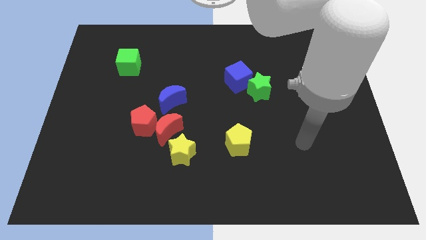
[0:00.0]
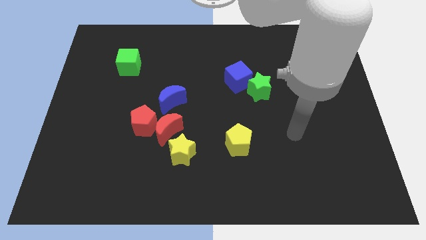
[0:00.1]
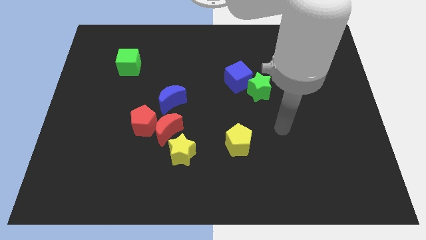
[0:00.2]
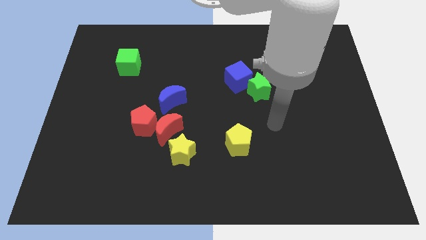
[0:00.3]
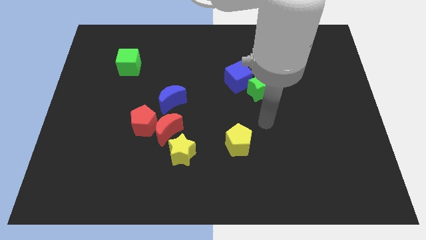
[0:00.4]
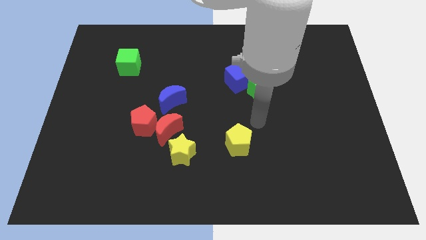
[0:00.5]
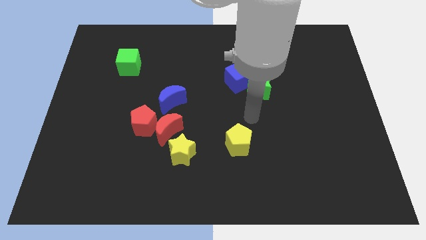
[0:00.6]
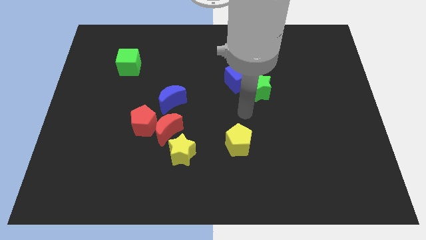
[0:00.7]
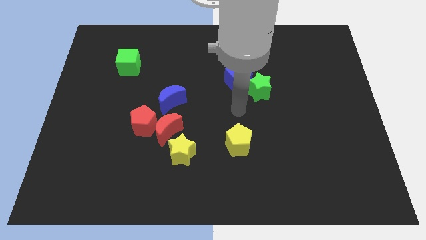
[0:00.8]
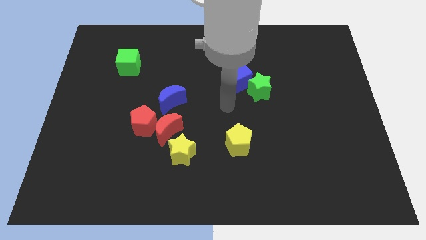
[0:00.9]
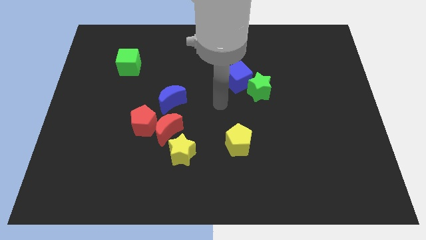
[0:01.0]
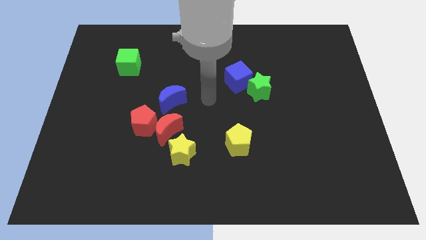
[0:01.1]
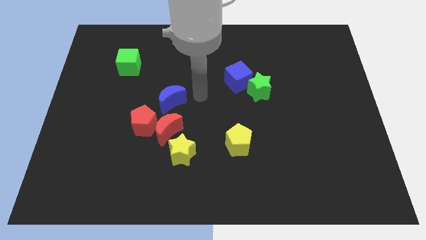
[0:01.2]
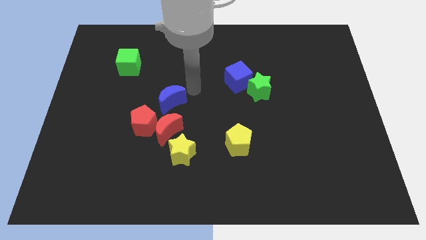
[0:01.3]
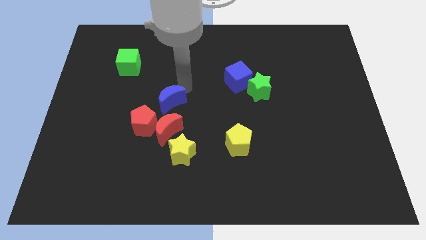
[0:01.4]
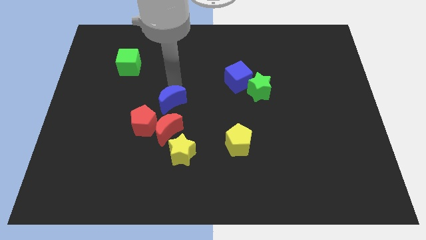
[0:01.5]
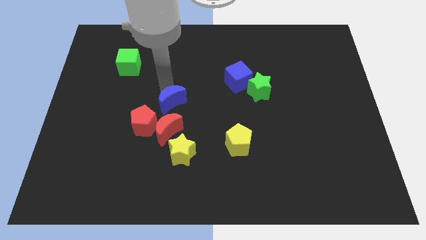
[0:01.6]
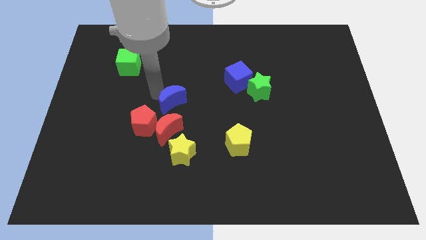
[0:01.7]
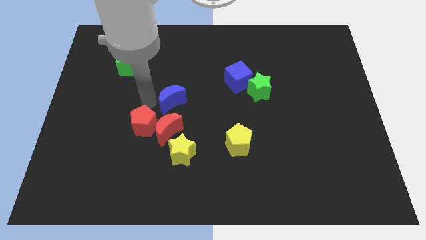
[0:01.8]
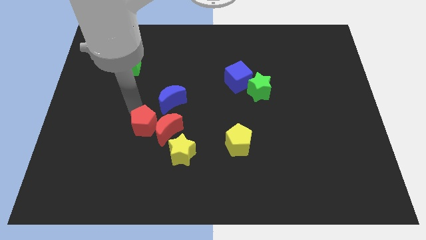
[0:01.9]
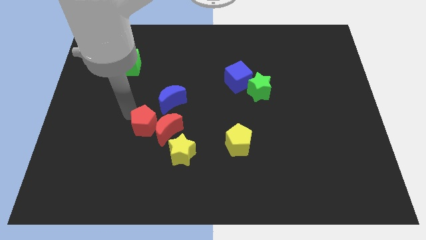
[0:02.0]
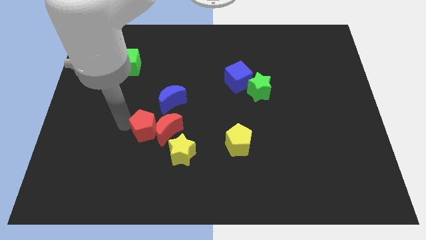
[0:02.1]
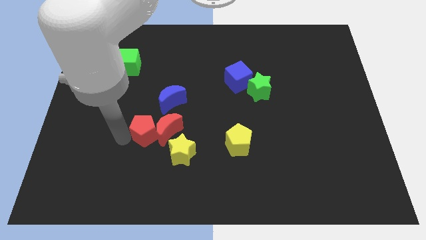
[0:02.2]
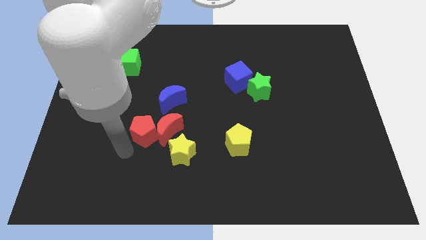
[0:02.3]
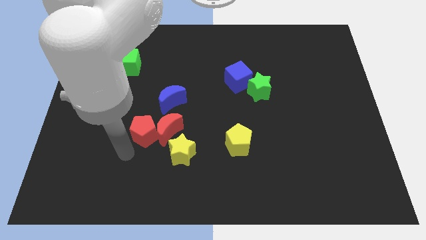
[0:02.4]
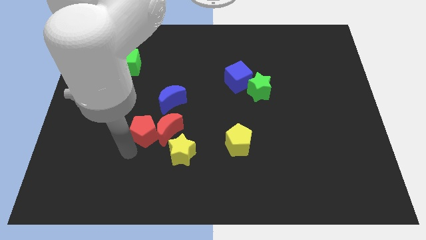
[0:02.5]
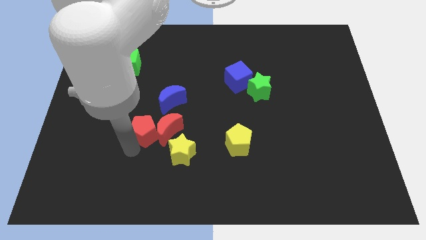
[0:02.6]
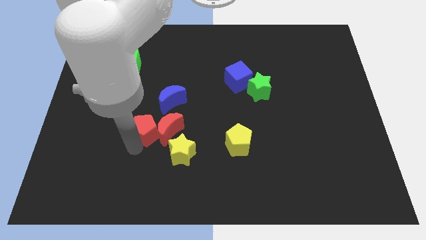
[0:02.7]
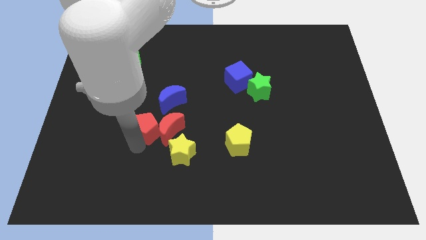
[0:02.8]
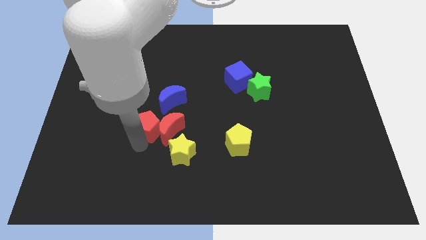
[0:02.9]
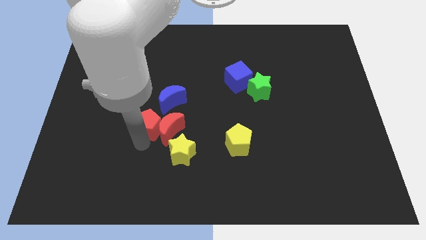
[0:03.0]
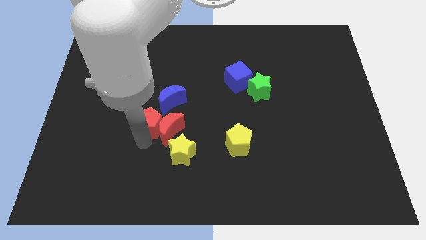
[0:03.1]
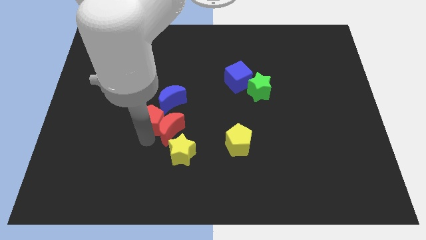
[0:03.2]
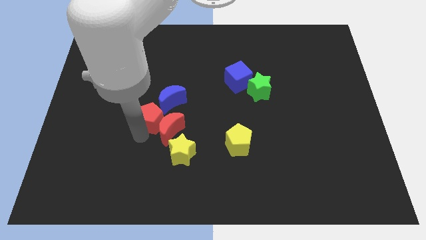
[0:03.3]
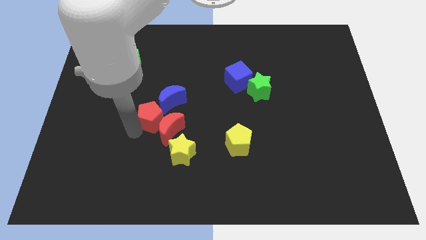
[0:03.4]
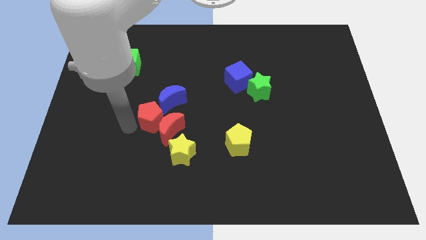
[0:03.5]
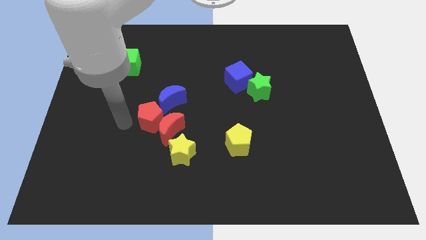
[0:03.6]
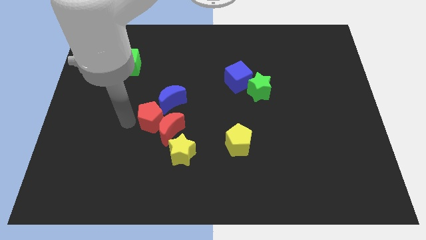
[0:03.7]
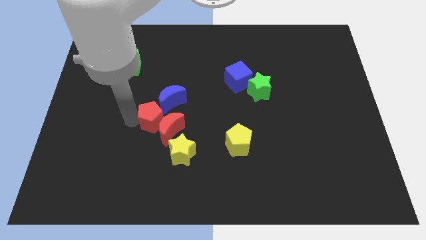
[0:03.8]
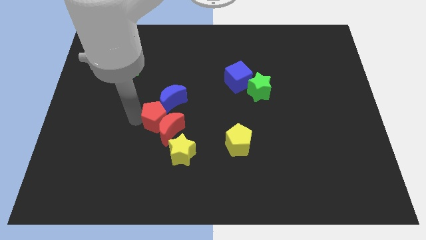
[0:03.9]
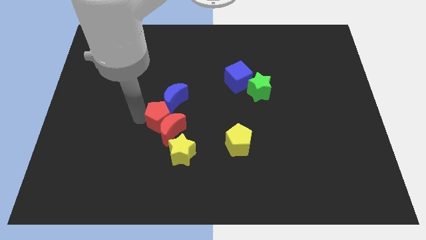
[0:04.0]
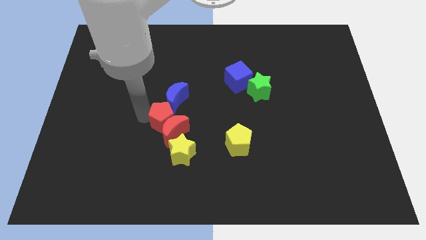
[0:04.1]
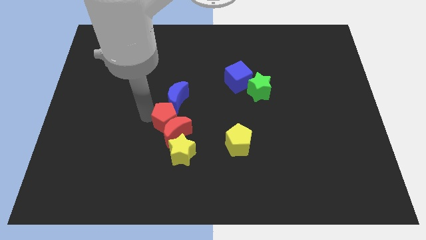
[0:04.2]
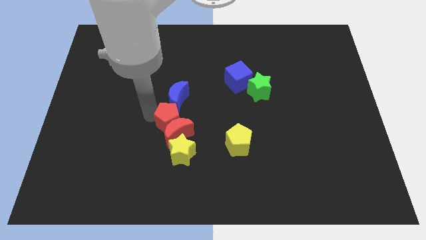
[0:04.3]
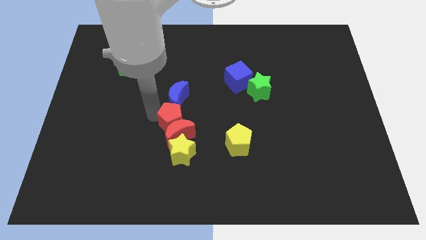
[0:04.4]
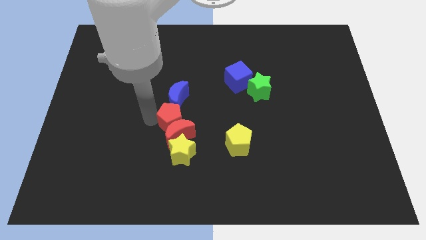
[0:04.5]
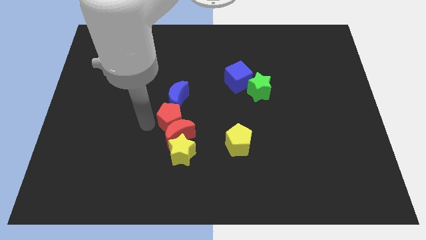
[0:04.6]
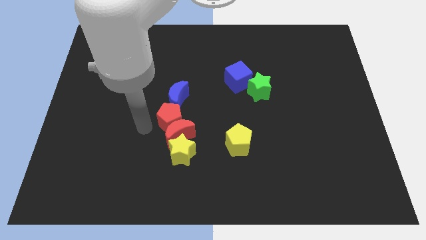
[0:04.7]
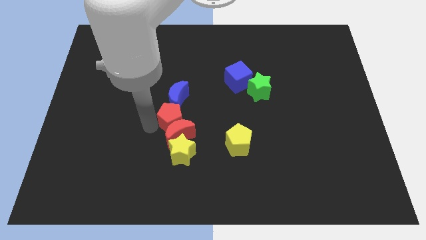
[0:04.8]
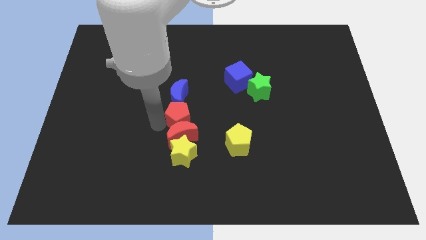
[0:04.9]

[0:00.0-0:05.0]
slide the red pentagon a little bit right

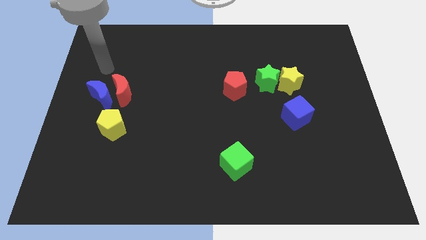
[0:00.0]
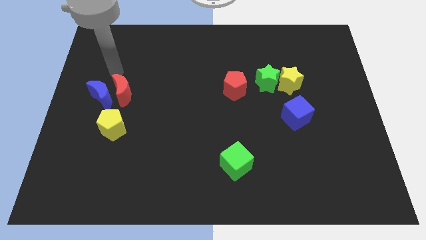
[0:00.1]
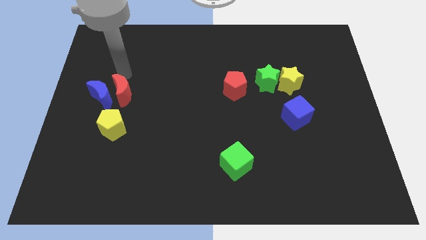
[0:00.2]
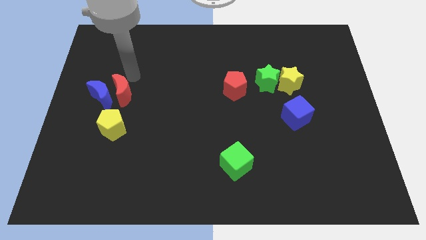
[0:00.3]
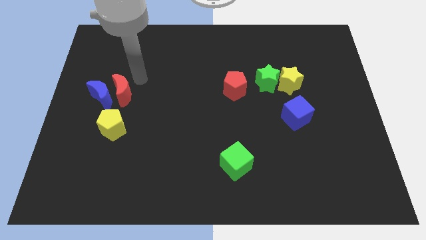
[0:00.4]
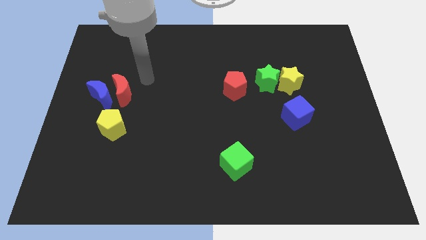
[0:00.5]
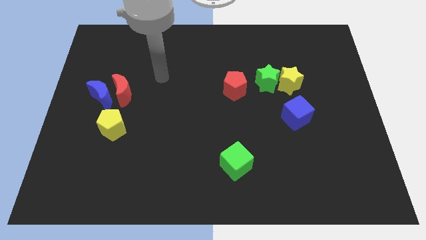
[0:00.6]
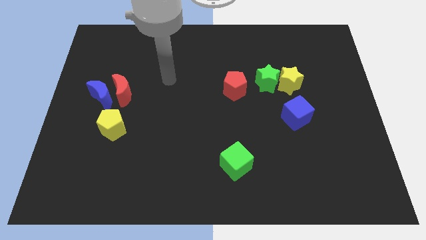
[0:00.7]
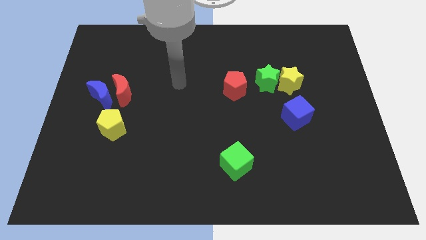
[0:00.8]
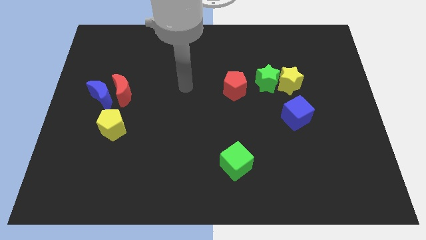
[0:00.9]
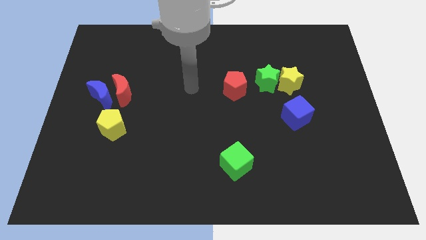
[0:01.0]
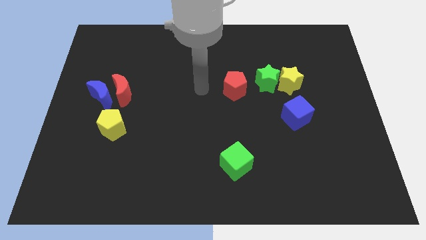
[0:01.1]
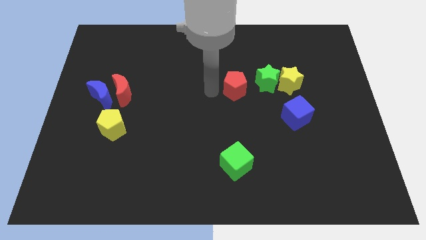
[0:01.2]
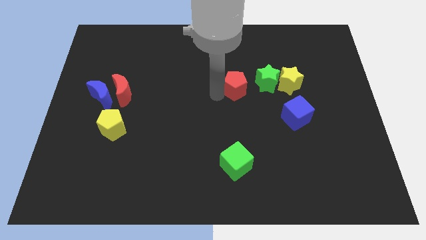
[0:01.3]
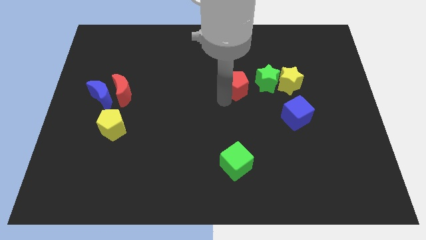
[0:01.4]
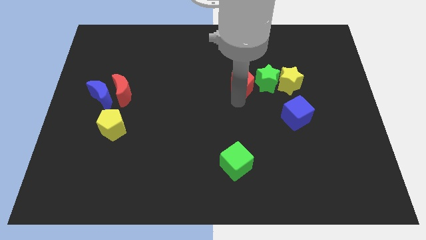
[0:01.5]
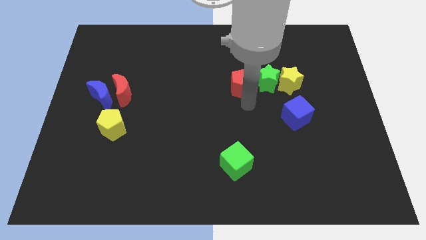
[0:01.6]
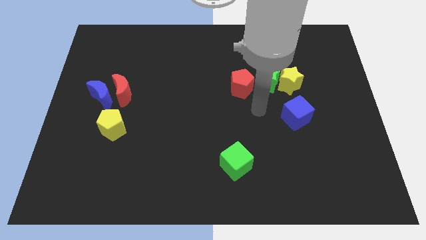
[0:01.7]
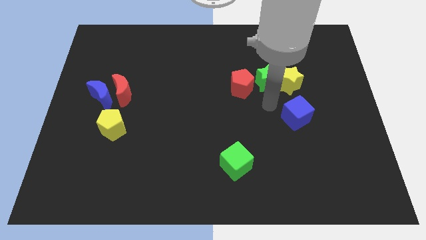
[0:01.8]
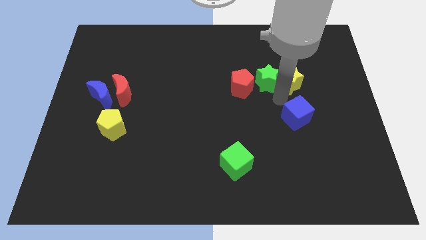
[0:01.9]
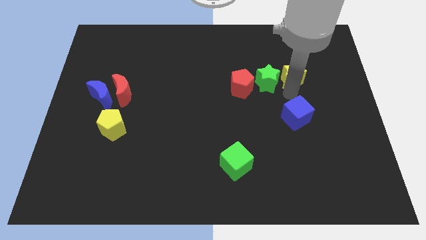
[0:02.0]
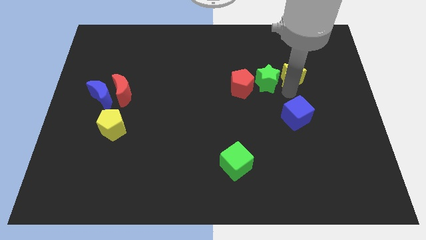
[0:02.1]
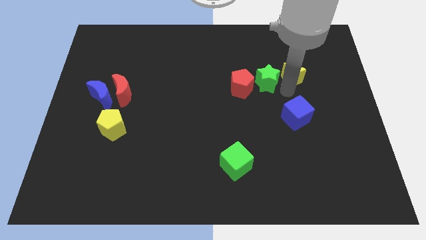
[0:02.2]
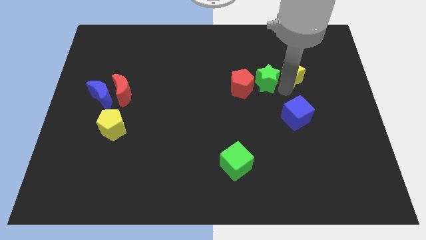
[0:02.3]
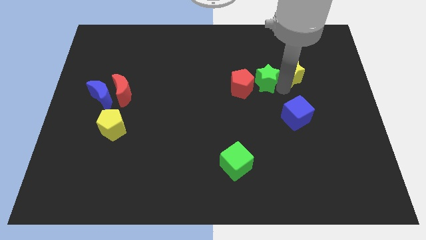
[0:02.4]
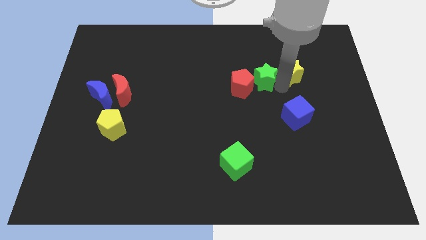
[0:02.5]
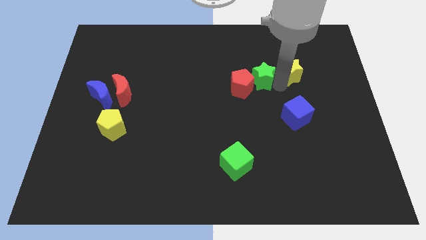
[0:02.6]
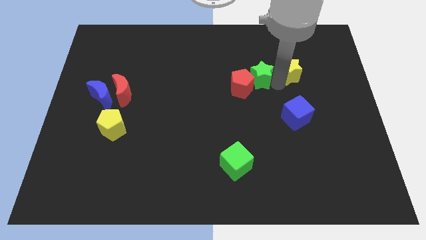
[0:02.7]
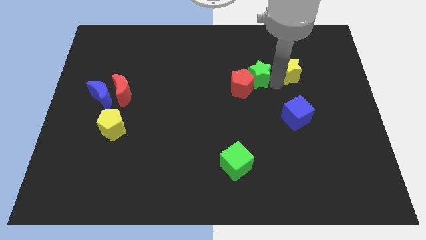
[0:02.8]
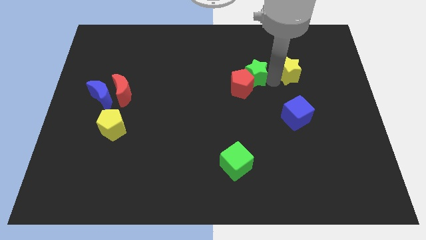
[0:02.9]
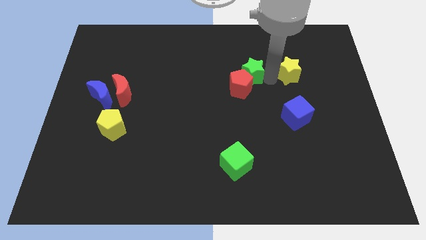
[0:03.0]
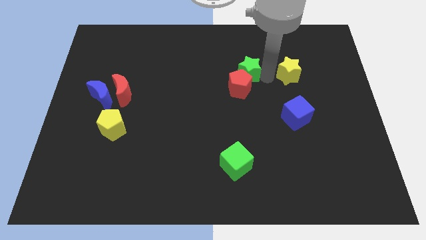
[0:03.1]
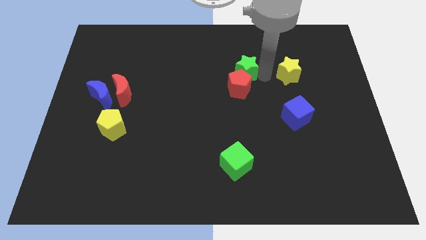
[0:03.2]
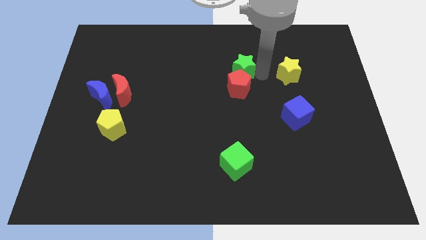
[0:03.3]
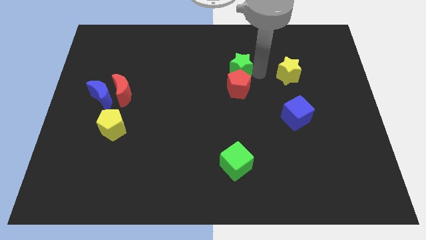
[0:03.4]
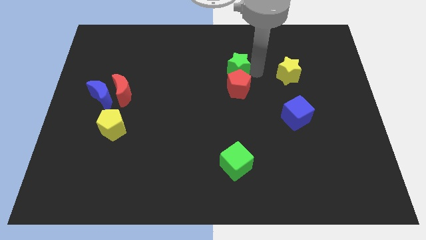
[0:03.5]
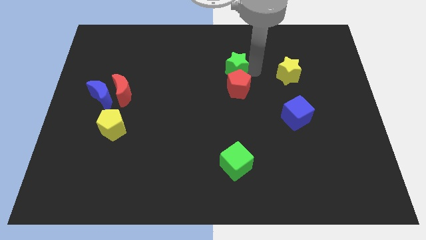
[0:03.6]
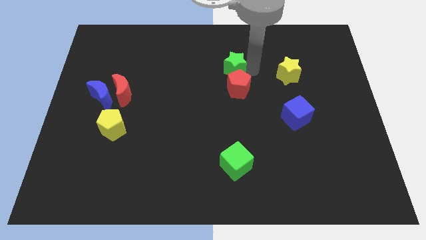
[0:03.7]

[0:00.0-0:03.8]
push the green star somewhat to the left
